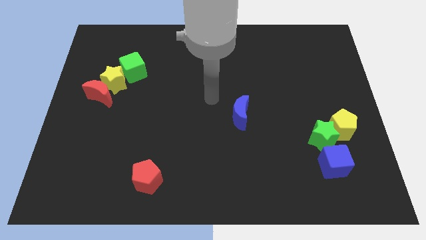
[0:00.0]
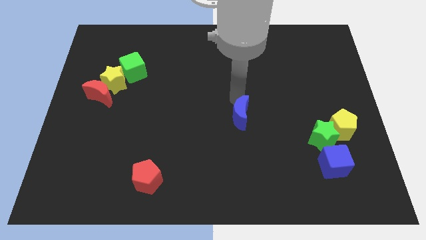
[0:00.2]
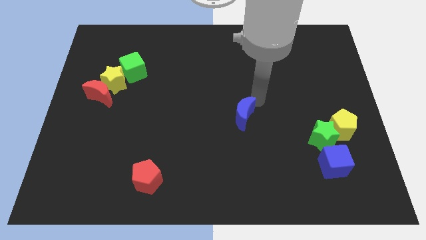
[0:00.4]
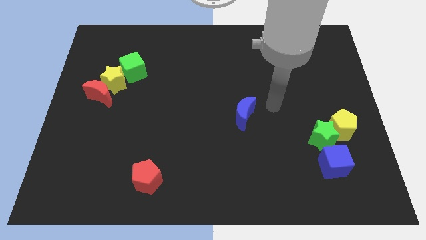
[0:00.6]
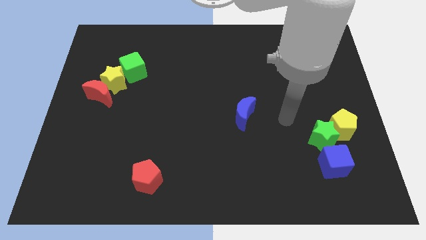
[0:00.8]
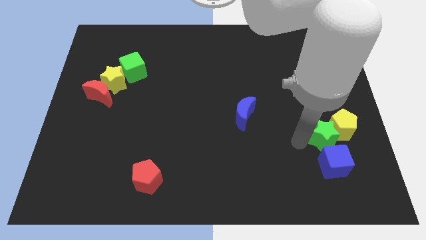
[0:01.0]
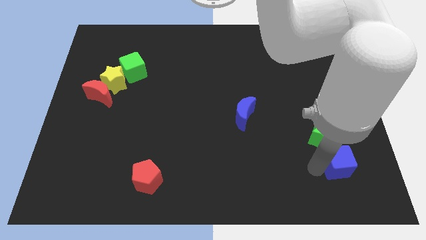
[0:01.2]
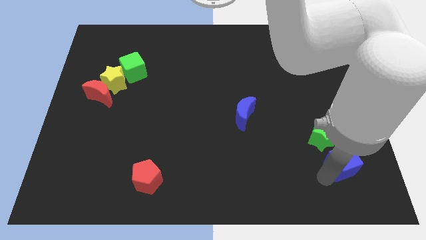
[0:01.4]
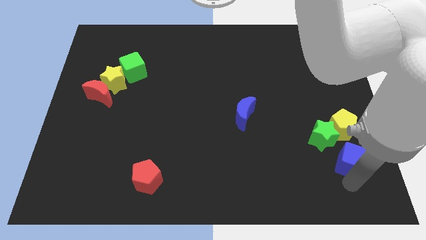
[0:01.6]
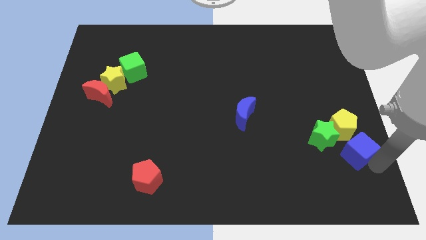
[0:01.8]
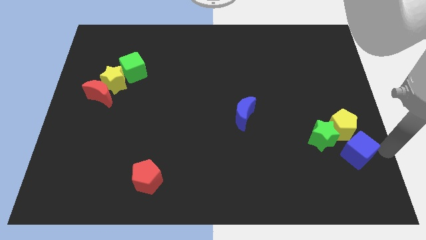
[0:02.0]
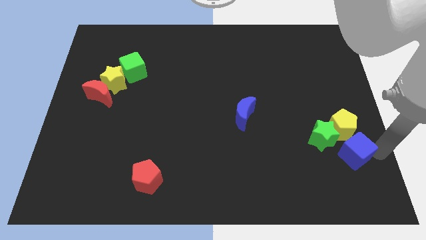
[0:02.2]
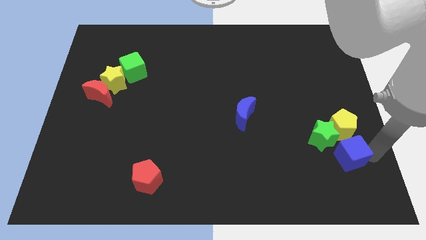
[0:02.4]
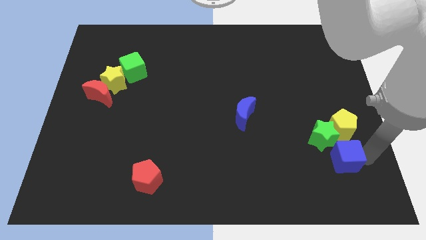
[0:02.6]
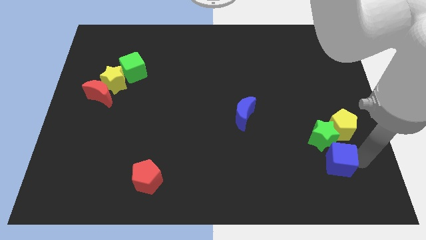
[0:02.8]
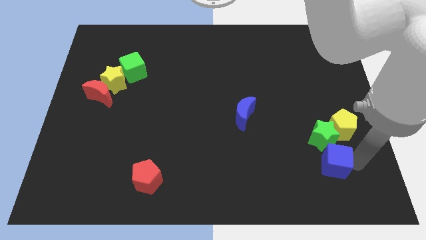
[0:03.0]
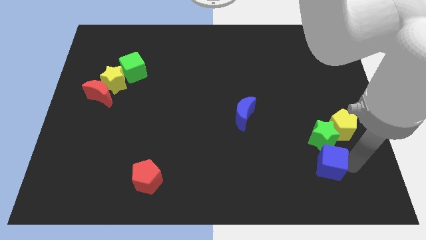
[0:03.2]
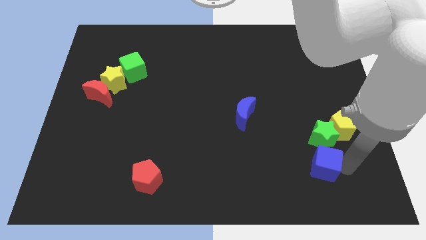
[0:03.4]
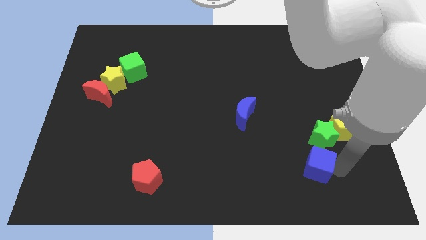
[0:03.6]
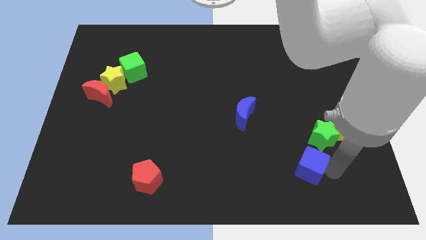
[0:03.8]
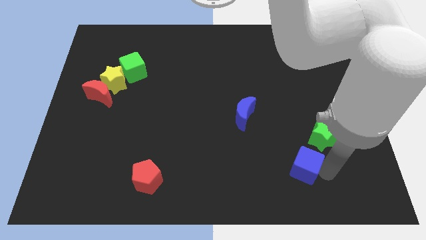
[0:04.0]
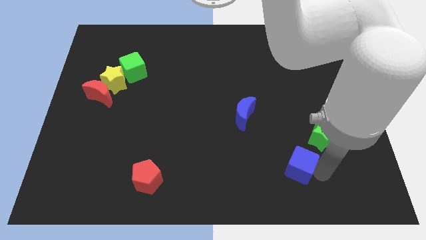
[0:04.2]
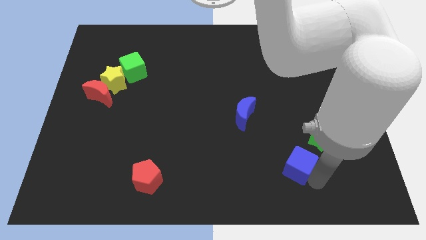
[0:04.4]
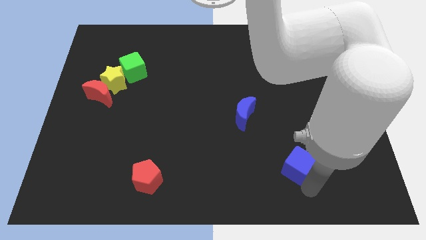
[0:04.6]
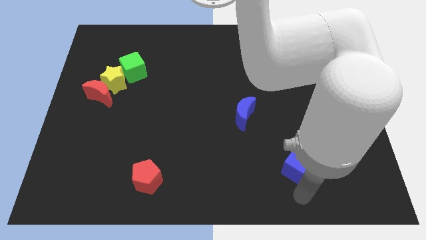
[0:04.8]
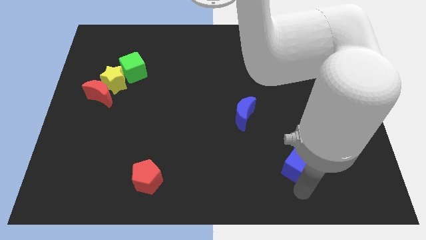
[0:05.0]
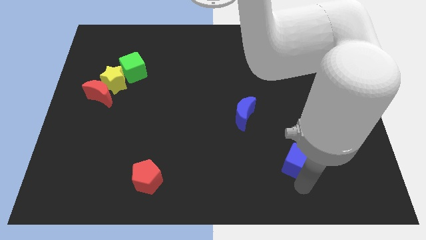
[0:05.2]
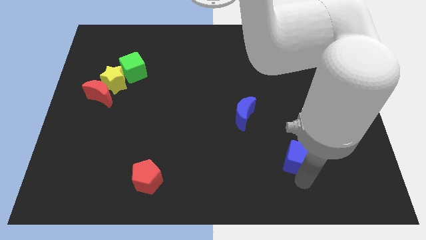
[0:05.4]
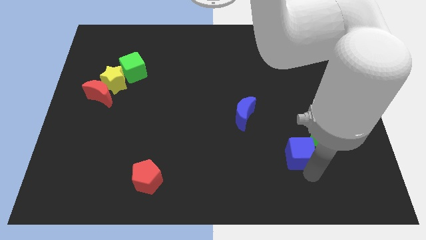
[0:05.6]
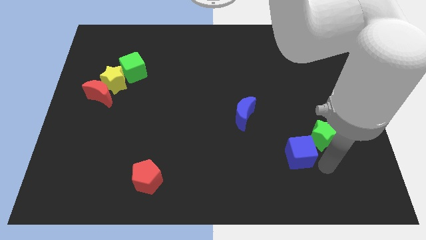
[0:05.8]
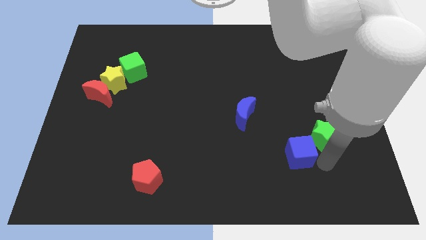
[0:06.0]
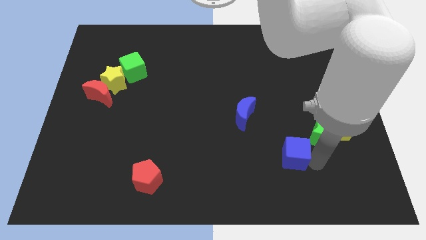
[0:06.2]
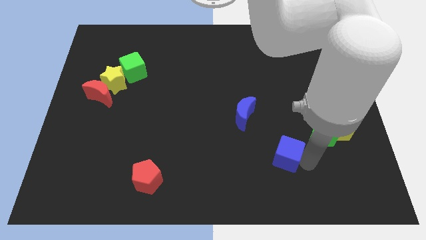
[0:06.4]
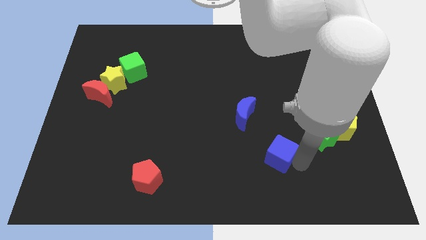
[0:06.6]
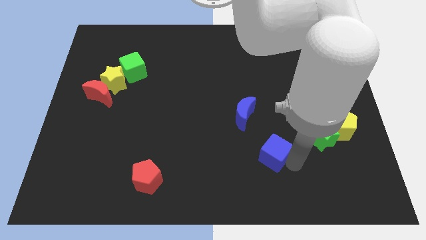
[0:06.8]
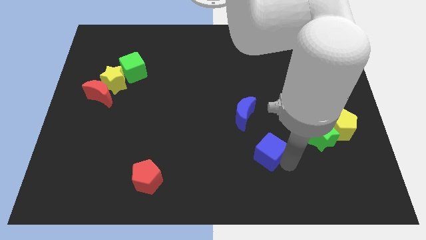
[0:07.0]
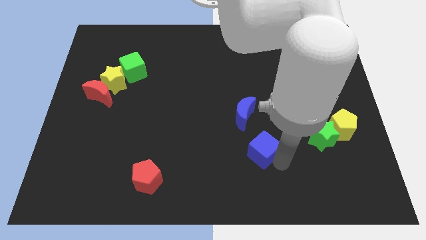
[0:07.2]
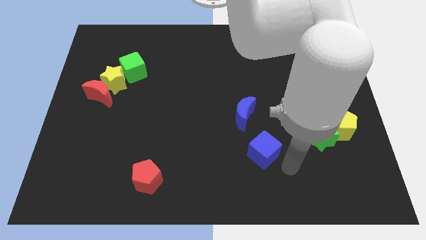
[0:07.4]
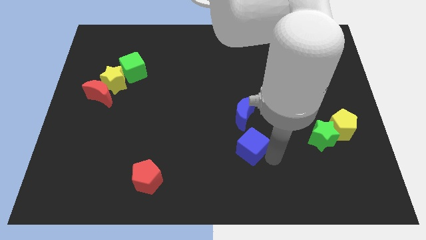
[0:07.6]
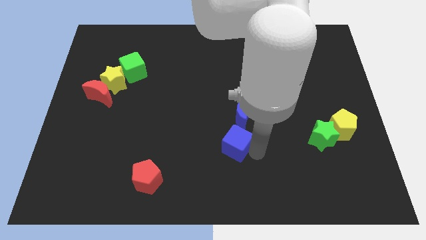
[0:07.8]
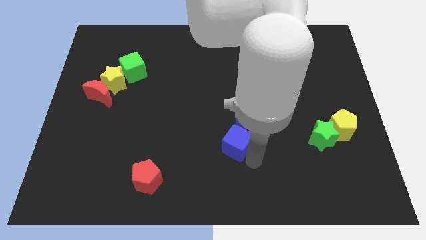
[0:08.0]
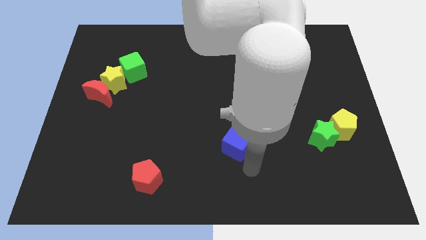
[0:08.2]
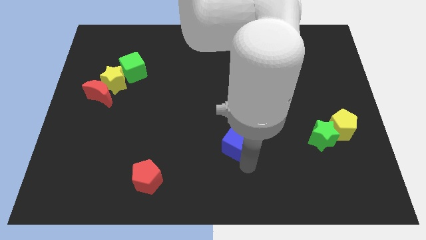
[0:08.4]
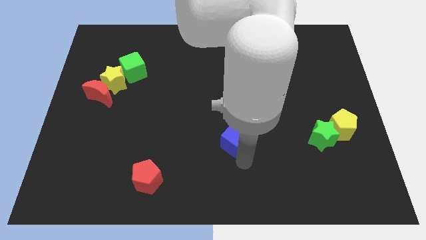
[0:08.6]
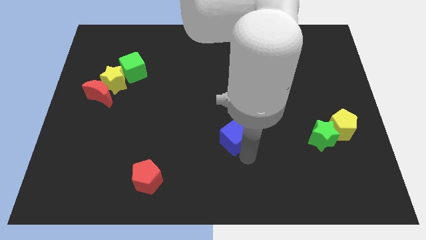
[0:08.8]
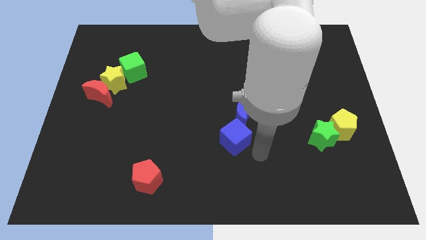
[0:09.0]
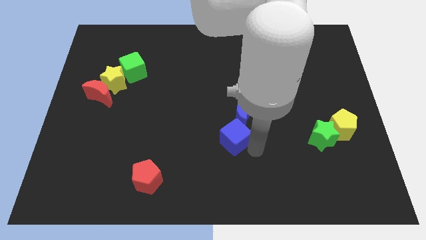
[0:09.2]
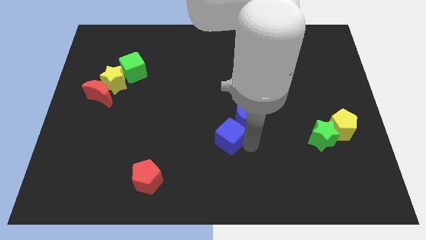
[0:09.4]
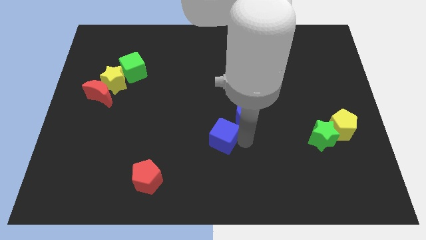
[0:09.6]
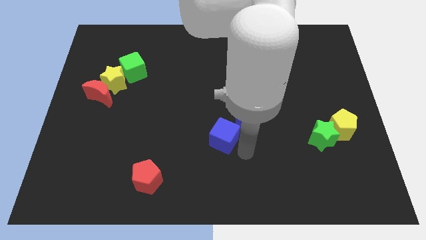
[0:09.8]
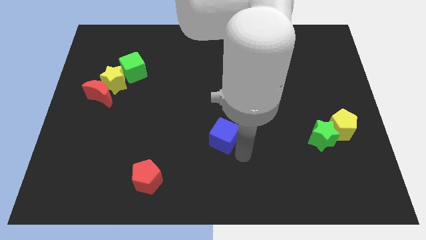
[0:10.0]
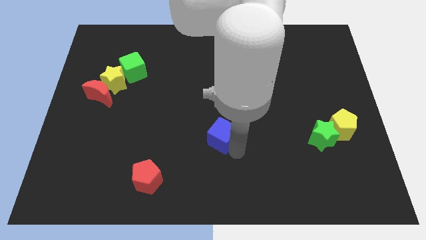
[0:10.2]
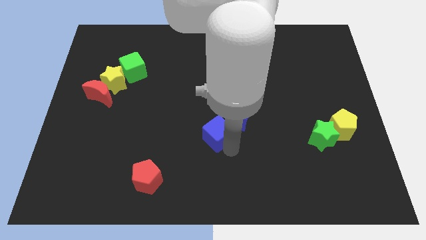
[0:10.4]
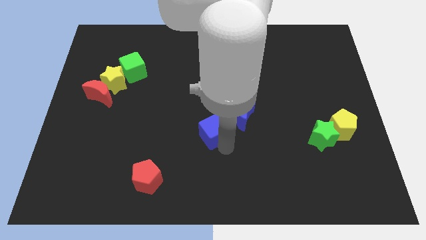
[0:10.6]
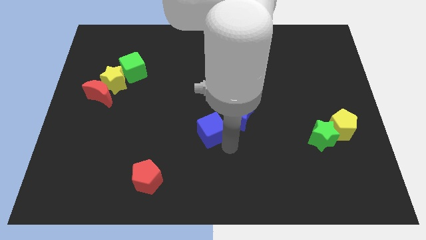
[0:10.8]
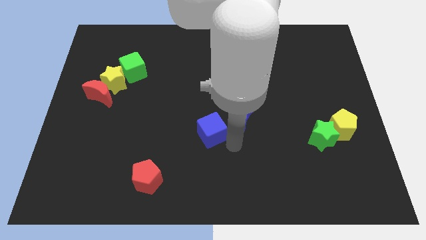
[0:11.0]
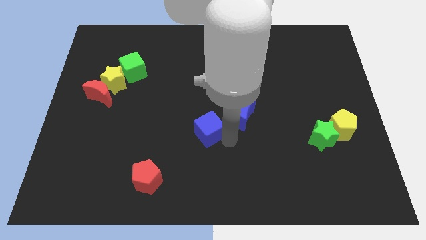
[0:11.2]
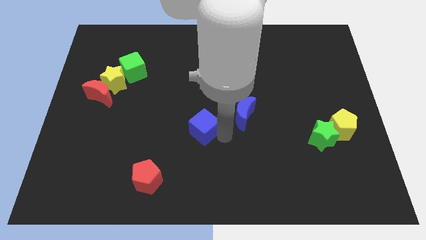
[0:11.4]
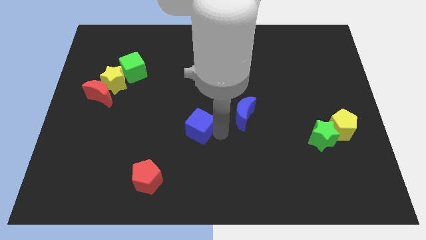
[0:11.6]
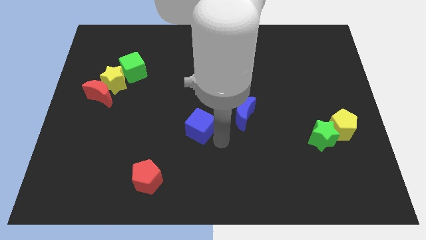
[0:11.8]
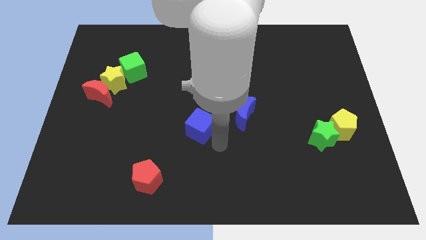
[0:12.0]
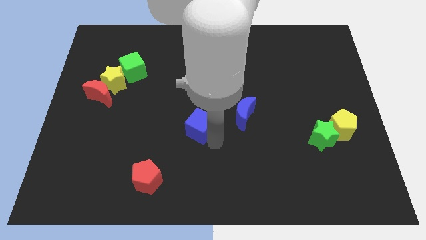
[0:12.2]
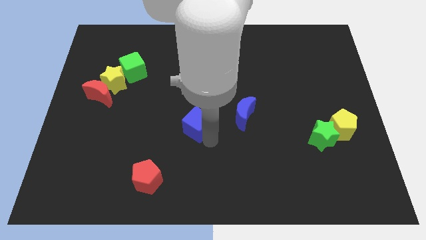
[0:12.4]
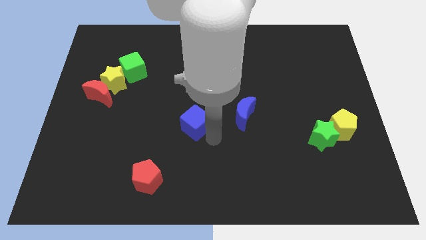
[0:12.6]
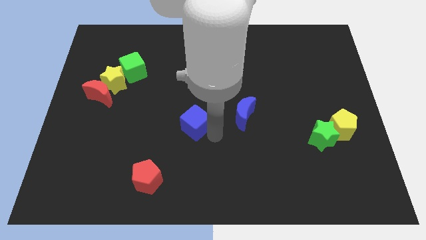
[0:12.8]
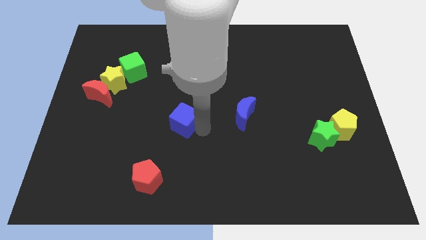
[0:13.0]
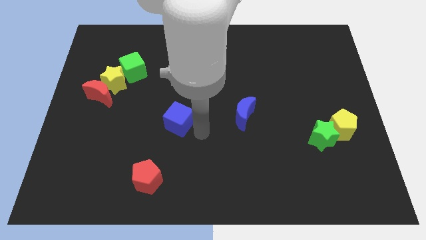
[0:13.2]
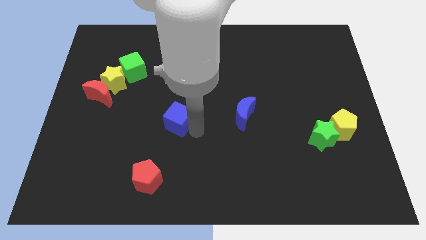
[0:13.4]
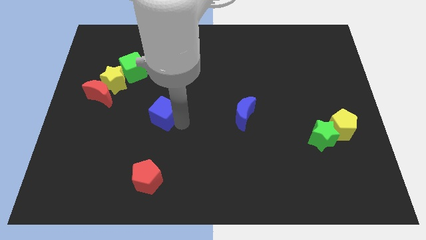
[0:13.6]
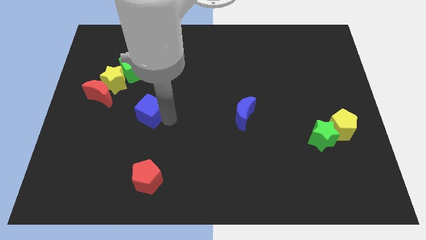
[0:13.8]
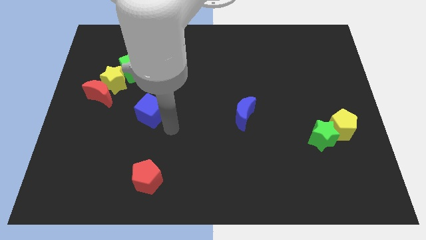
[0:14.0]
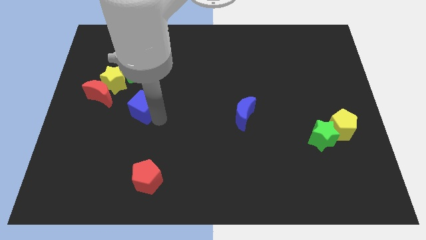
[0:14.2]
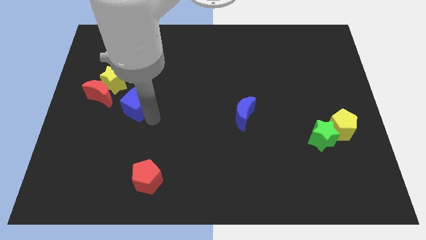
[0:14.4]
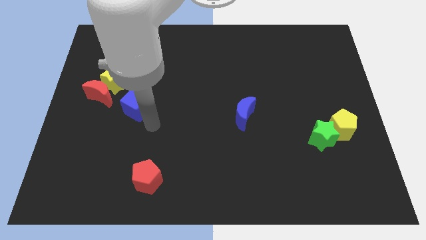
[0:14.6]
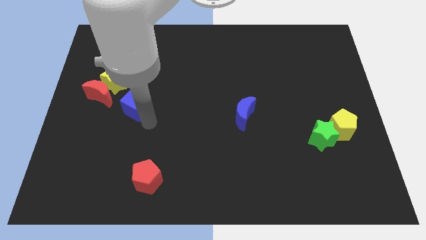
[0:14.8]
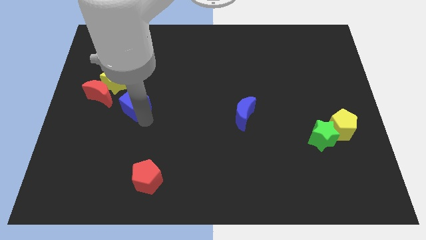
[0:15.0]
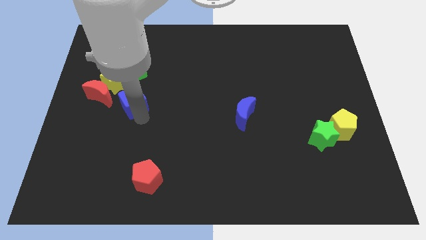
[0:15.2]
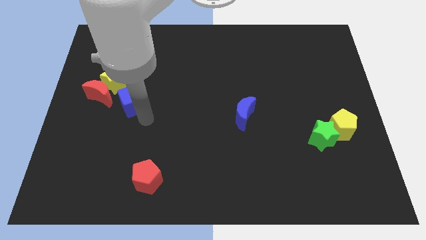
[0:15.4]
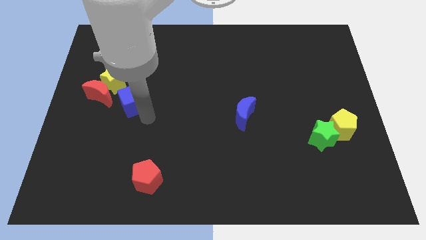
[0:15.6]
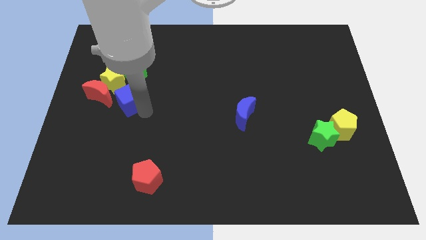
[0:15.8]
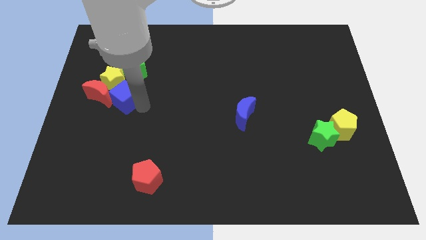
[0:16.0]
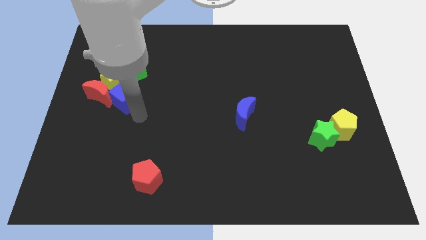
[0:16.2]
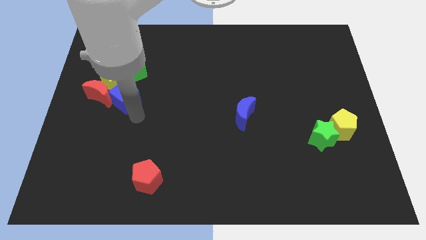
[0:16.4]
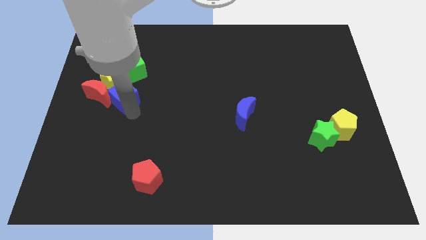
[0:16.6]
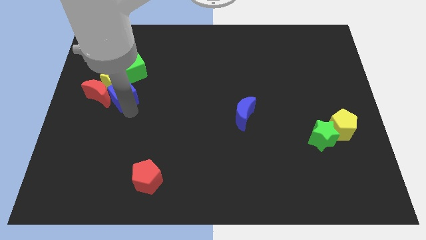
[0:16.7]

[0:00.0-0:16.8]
move the blue cube to the yellow star
